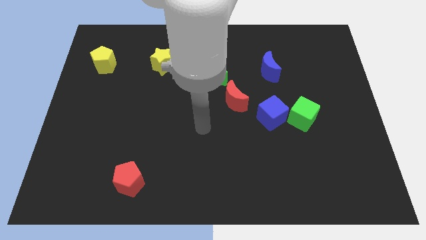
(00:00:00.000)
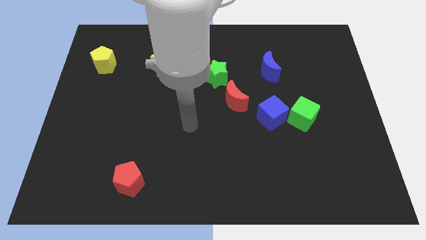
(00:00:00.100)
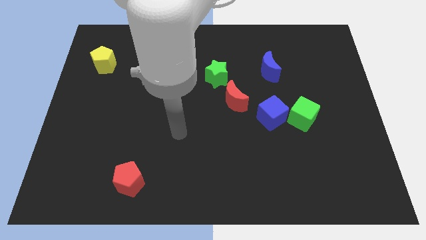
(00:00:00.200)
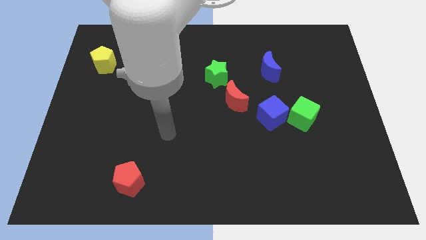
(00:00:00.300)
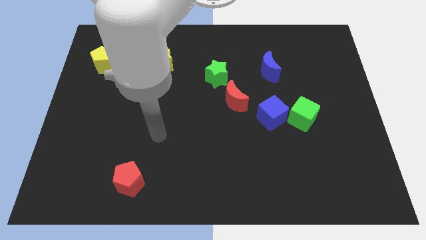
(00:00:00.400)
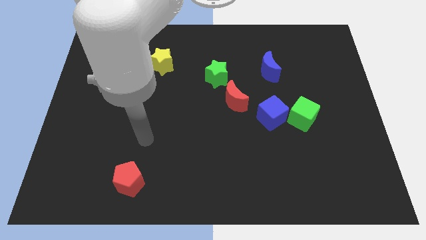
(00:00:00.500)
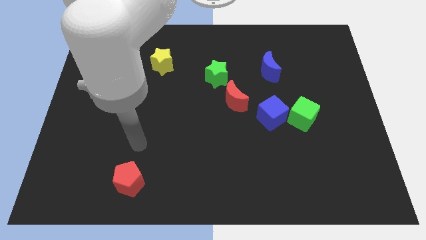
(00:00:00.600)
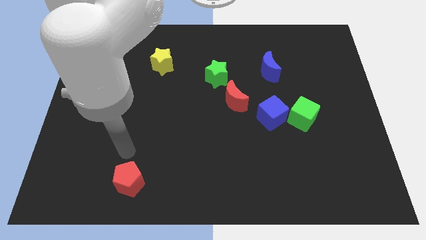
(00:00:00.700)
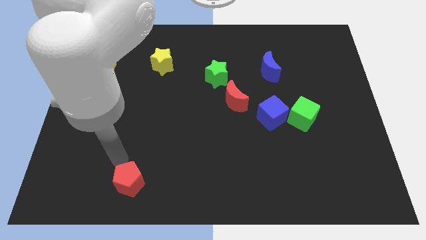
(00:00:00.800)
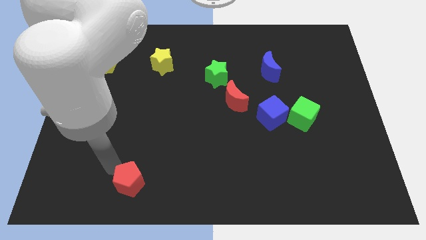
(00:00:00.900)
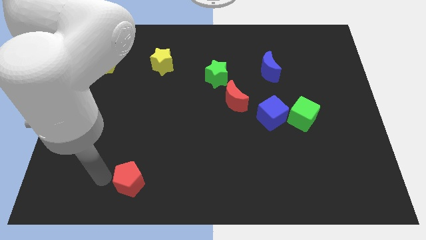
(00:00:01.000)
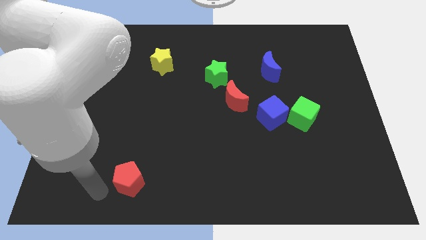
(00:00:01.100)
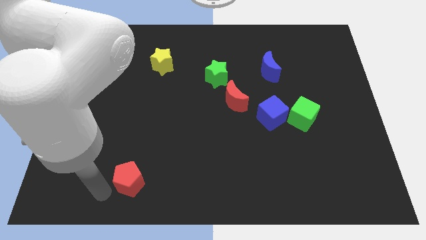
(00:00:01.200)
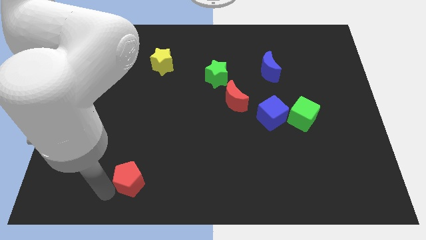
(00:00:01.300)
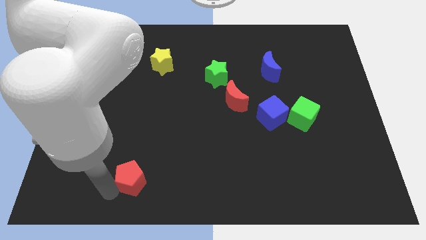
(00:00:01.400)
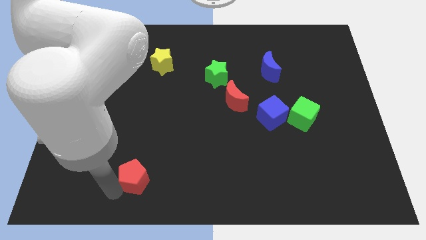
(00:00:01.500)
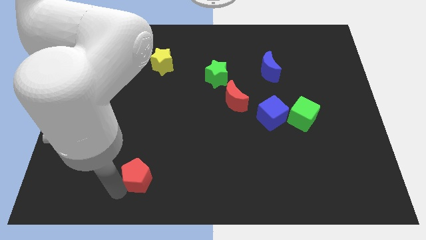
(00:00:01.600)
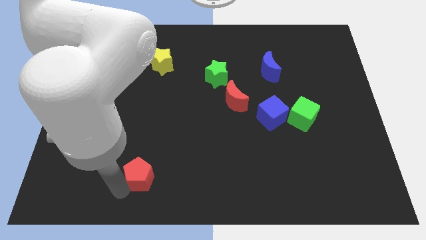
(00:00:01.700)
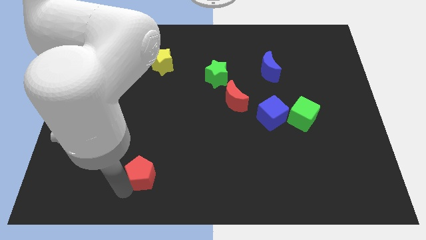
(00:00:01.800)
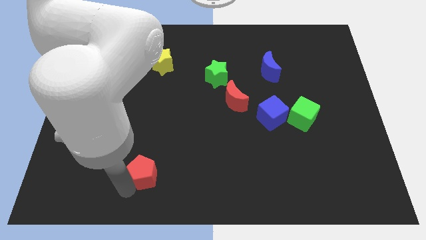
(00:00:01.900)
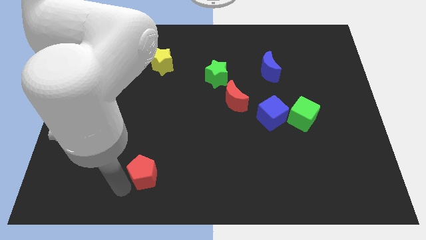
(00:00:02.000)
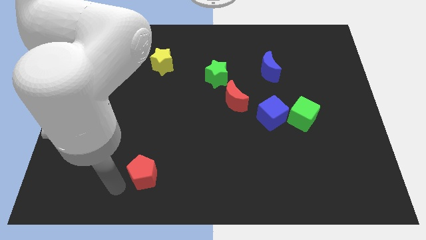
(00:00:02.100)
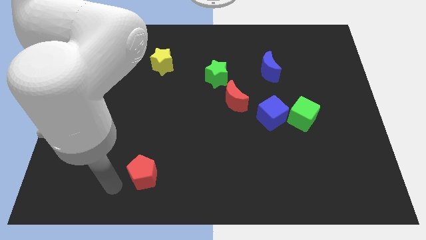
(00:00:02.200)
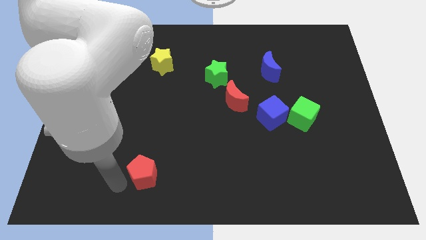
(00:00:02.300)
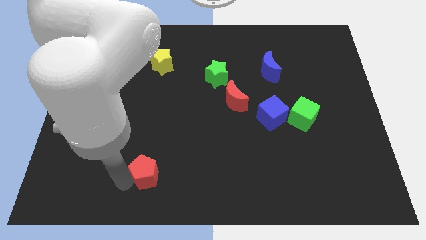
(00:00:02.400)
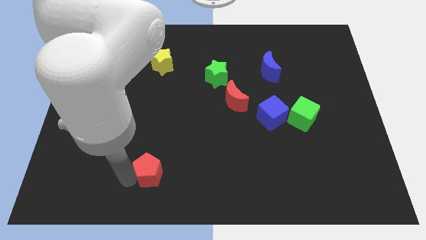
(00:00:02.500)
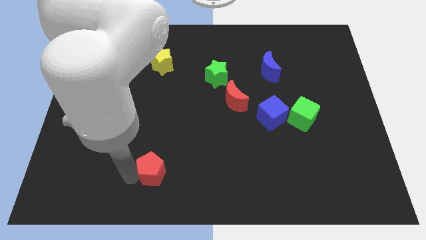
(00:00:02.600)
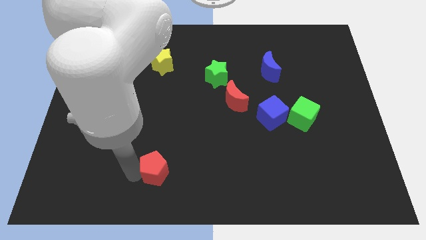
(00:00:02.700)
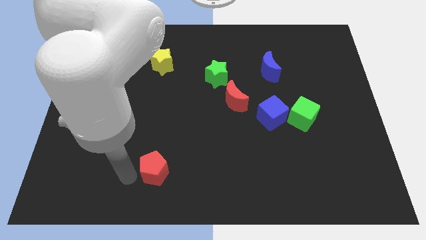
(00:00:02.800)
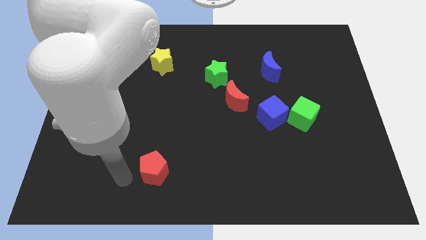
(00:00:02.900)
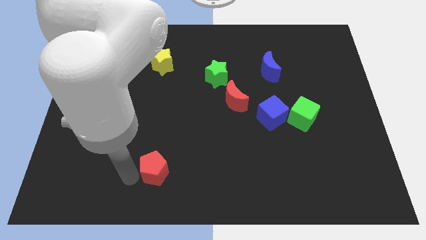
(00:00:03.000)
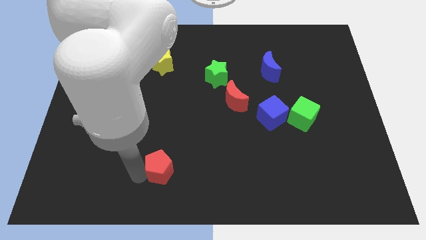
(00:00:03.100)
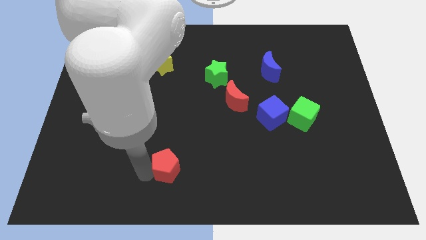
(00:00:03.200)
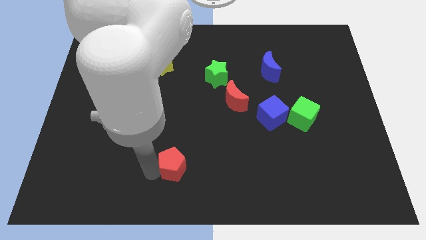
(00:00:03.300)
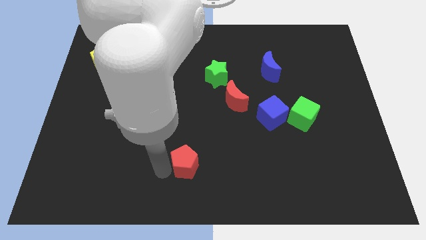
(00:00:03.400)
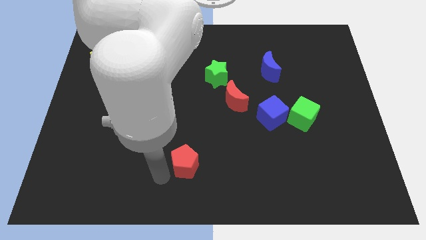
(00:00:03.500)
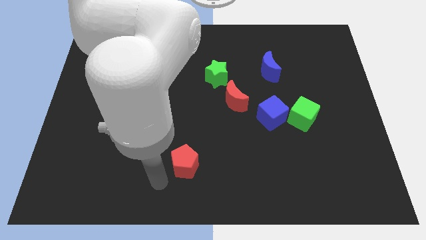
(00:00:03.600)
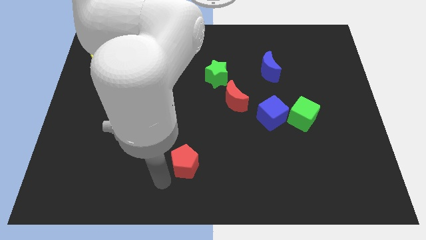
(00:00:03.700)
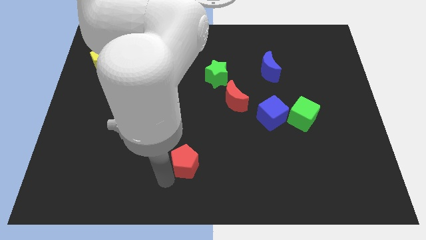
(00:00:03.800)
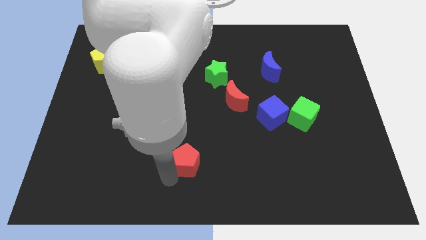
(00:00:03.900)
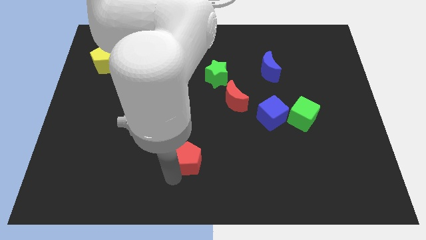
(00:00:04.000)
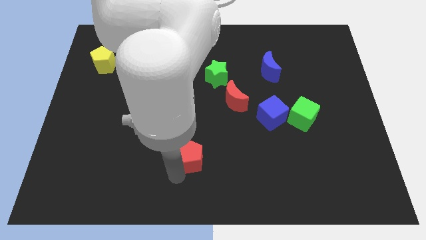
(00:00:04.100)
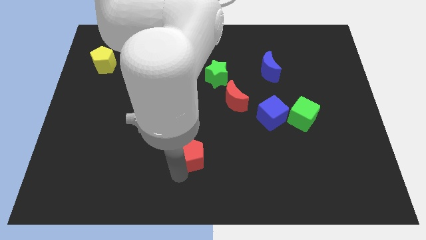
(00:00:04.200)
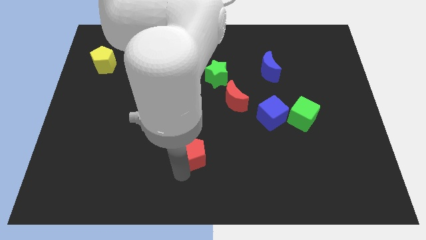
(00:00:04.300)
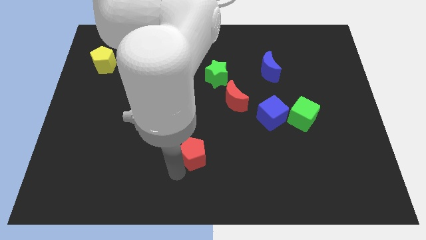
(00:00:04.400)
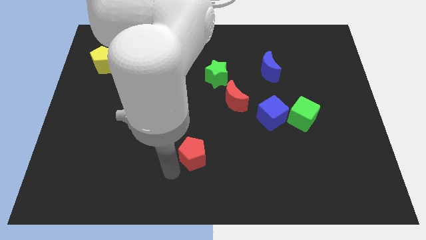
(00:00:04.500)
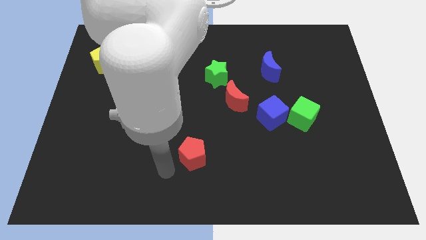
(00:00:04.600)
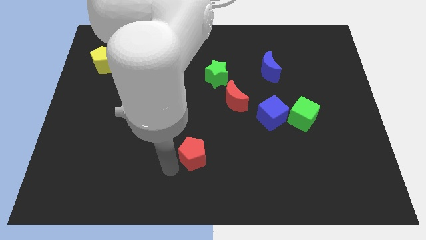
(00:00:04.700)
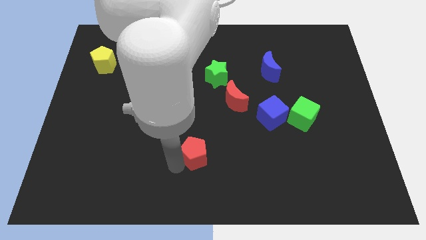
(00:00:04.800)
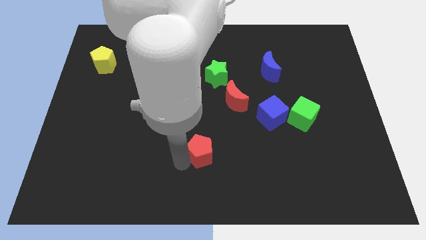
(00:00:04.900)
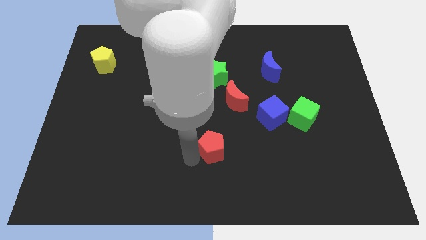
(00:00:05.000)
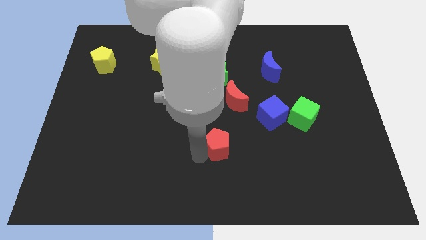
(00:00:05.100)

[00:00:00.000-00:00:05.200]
slide the red pentagon below the red moon

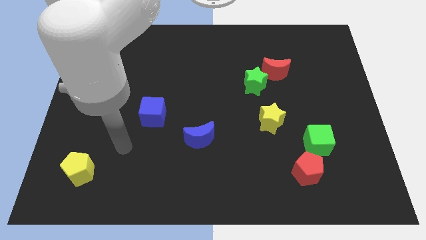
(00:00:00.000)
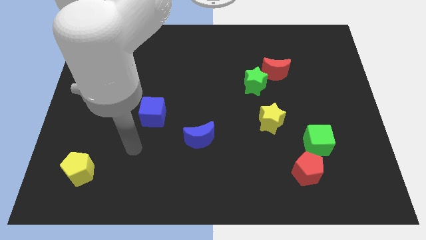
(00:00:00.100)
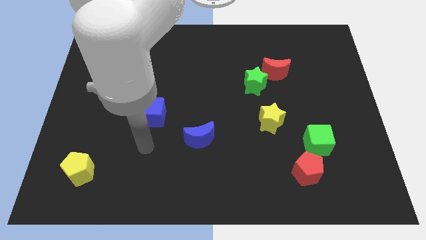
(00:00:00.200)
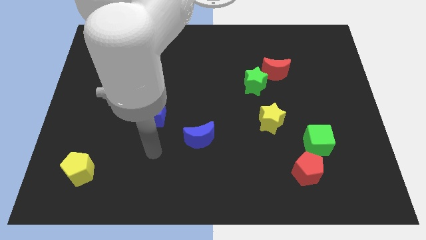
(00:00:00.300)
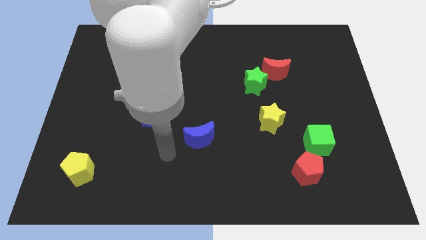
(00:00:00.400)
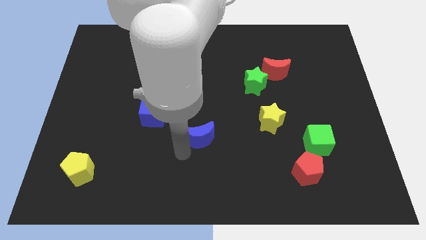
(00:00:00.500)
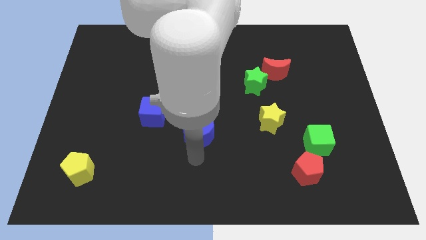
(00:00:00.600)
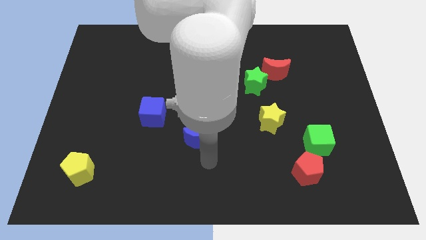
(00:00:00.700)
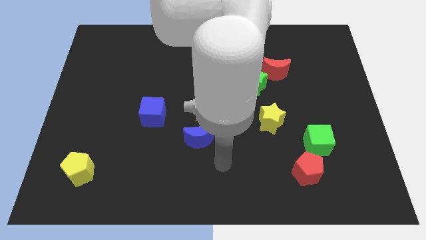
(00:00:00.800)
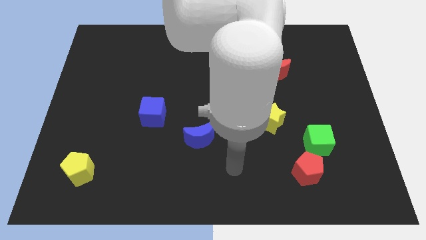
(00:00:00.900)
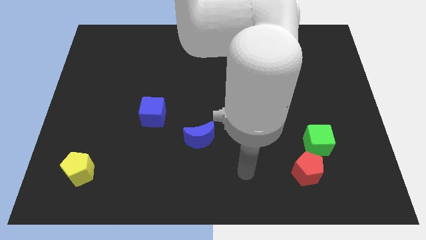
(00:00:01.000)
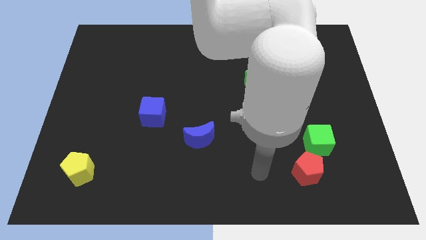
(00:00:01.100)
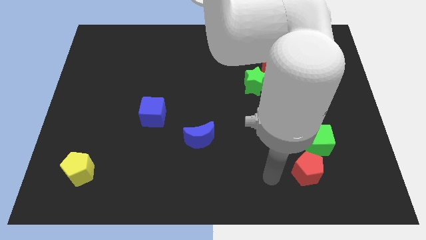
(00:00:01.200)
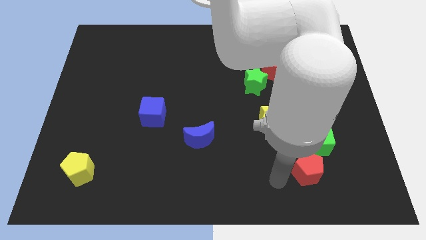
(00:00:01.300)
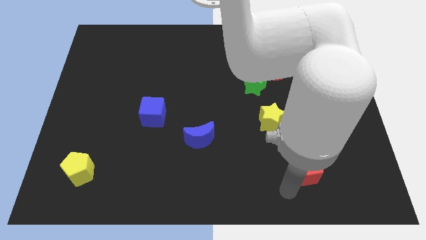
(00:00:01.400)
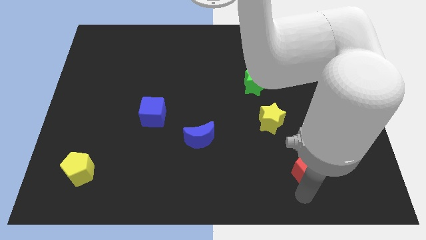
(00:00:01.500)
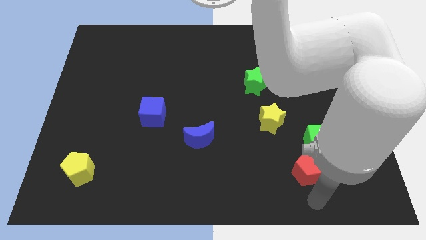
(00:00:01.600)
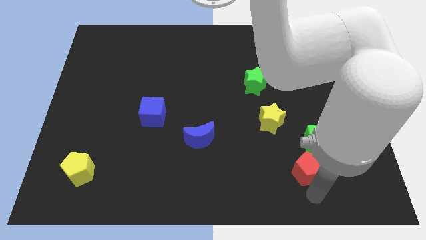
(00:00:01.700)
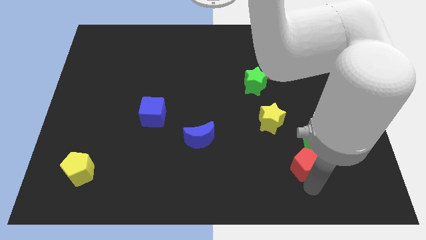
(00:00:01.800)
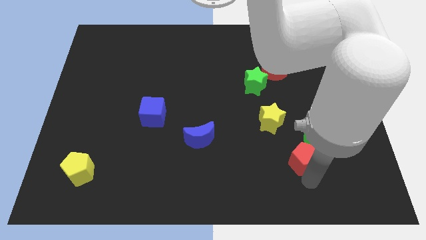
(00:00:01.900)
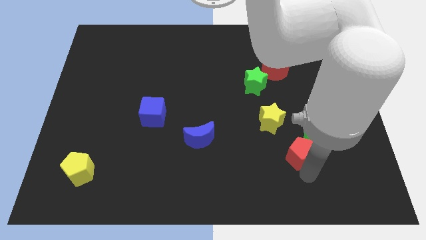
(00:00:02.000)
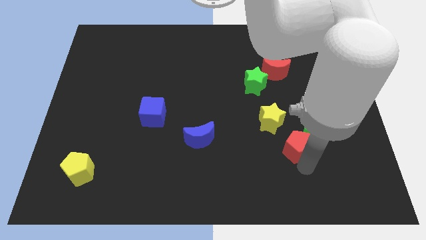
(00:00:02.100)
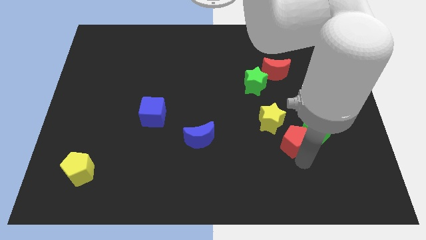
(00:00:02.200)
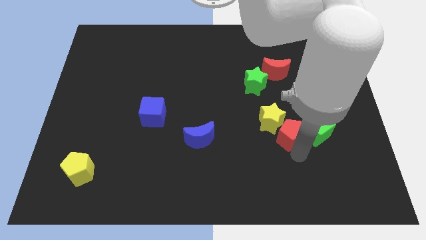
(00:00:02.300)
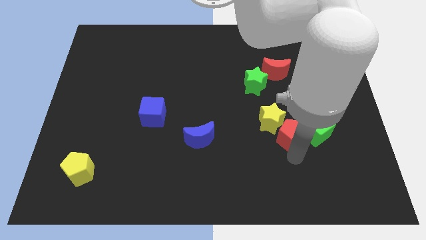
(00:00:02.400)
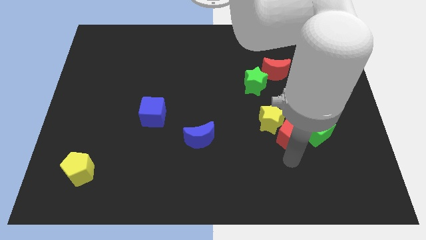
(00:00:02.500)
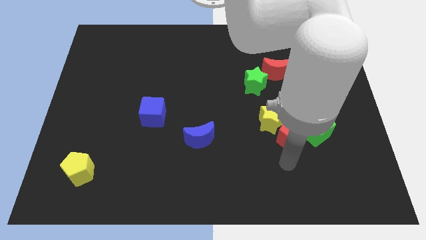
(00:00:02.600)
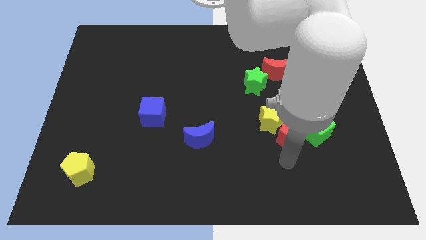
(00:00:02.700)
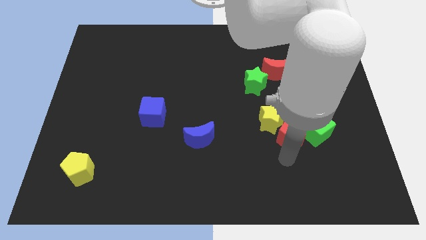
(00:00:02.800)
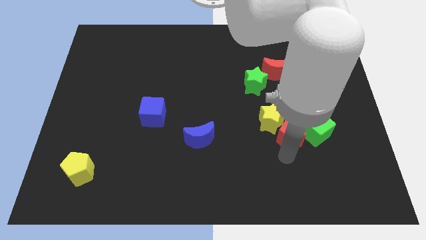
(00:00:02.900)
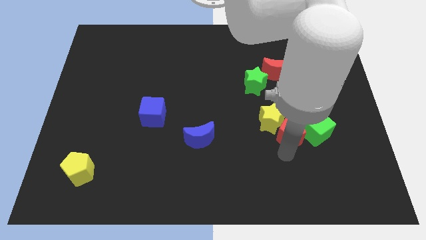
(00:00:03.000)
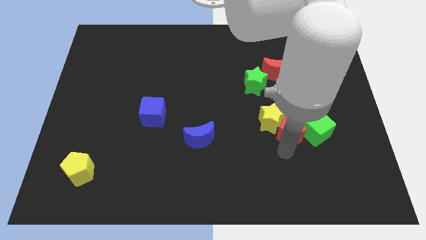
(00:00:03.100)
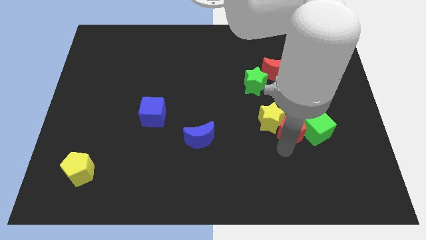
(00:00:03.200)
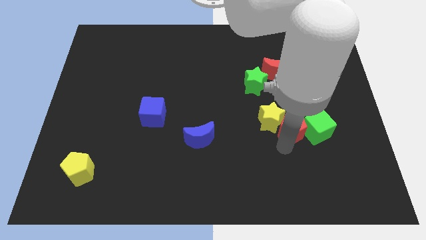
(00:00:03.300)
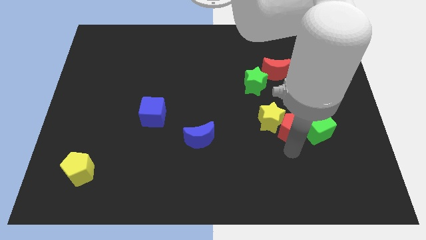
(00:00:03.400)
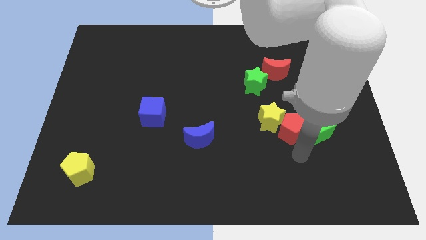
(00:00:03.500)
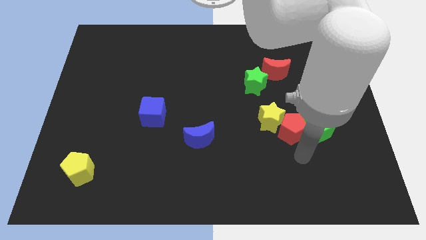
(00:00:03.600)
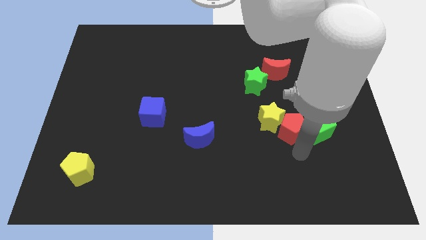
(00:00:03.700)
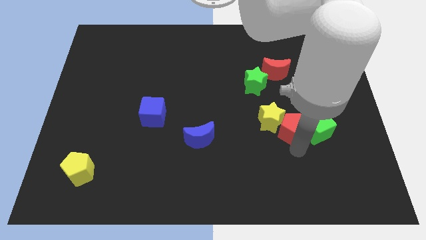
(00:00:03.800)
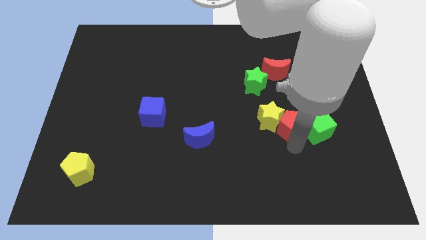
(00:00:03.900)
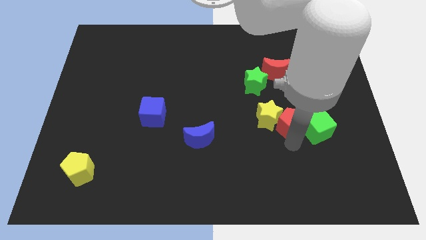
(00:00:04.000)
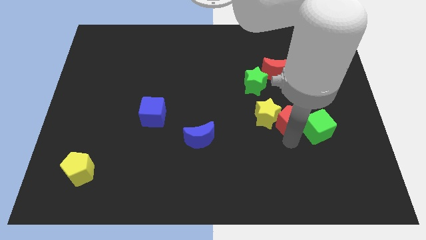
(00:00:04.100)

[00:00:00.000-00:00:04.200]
push the red pentagon to the bottom side of the red moon
